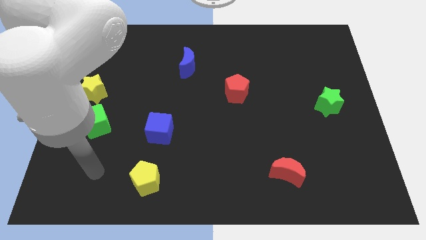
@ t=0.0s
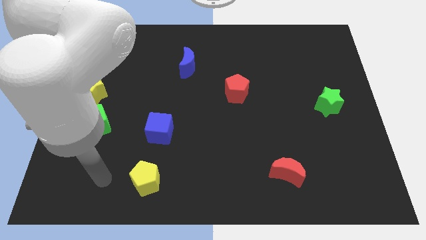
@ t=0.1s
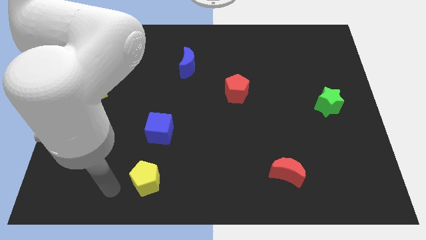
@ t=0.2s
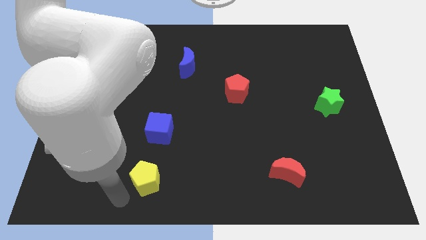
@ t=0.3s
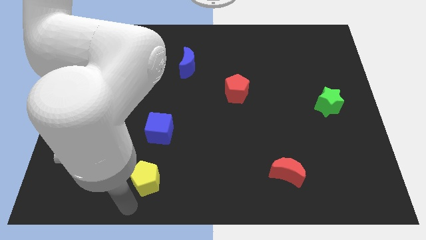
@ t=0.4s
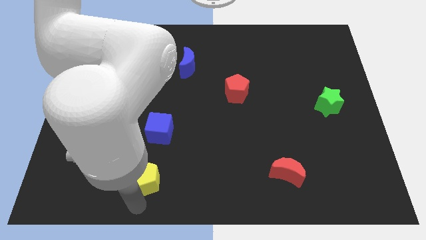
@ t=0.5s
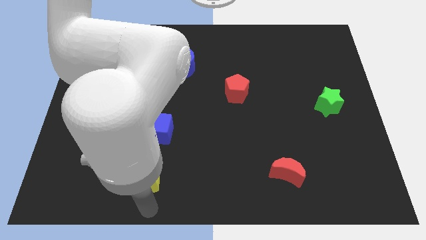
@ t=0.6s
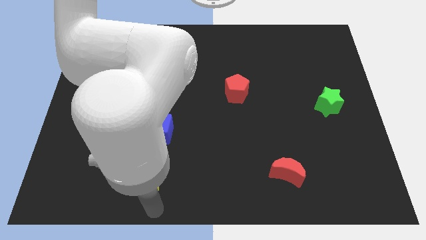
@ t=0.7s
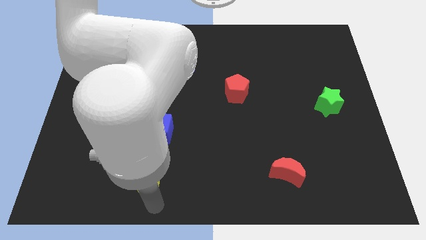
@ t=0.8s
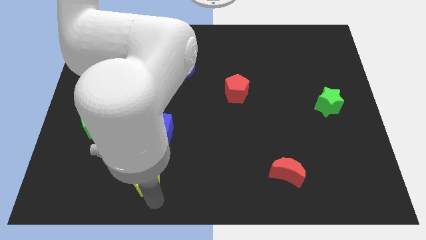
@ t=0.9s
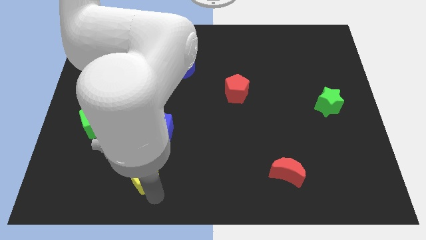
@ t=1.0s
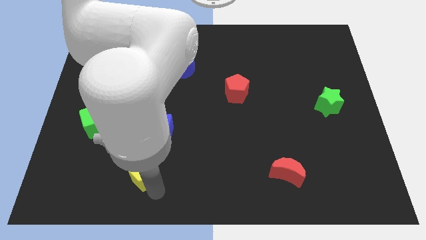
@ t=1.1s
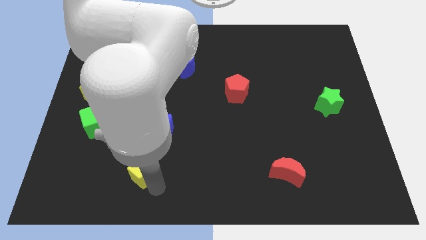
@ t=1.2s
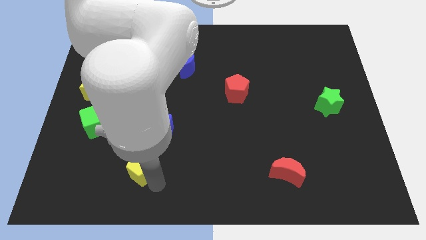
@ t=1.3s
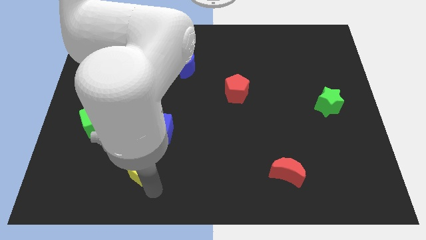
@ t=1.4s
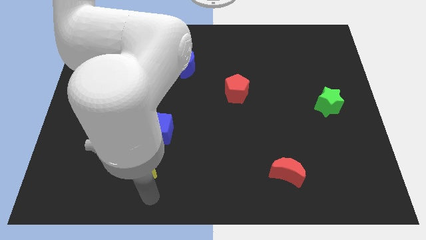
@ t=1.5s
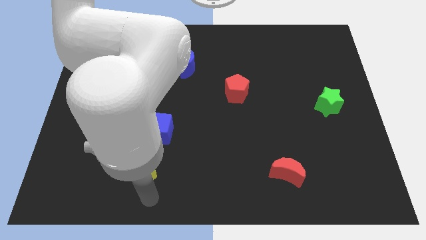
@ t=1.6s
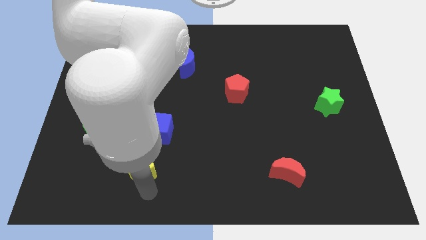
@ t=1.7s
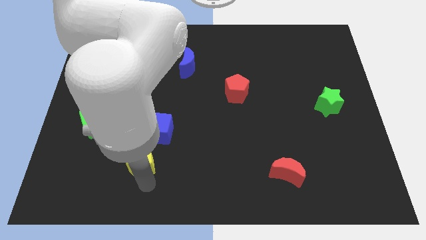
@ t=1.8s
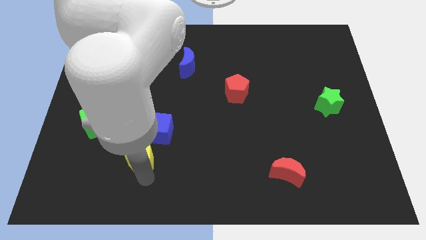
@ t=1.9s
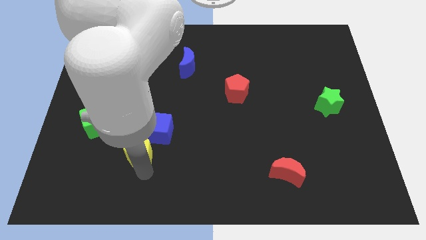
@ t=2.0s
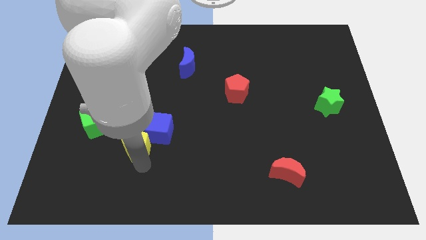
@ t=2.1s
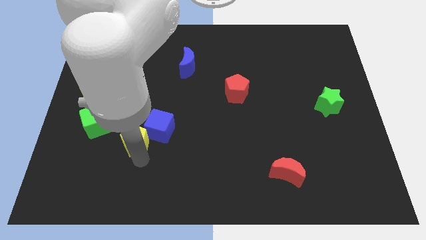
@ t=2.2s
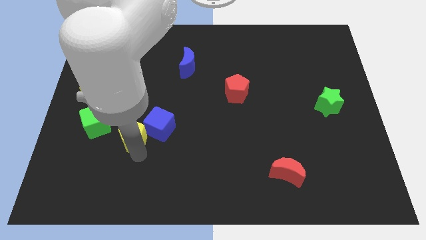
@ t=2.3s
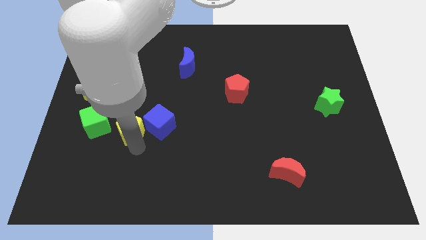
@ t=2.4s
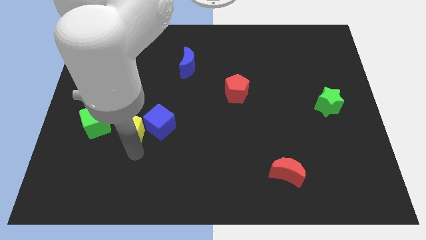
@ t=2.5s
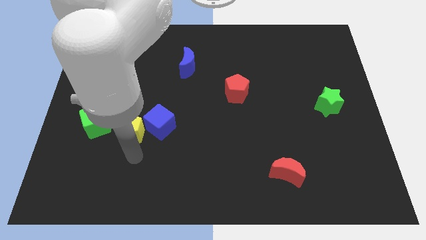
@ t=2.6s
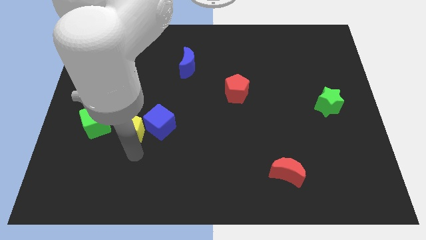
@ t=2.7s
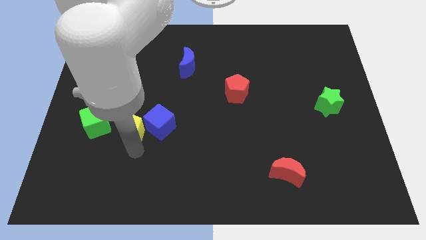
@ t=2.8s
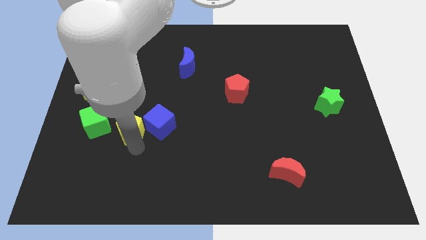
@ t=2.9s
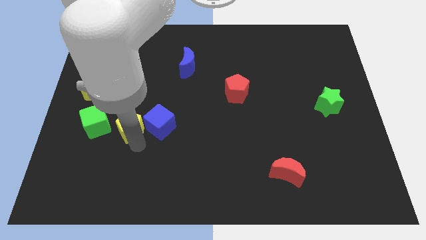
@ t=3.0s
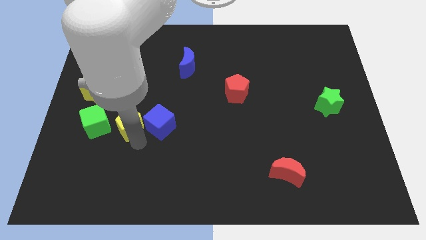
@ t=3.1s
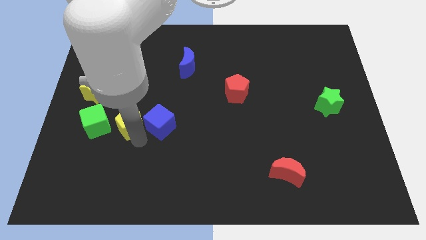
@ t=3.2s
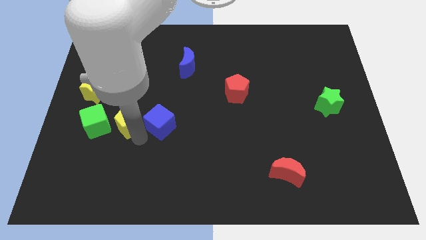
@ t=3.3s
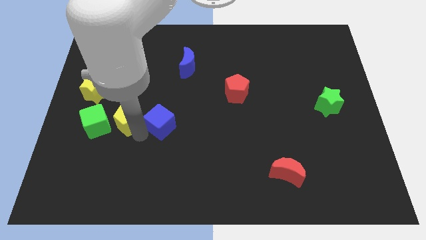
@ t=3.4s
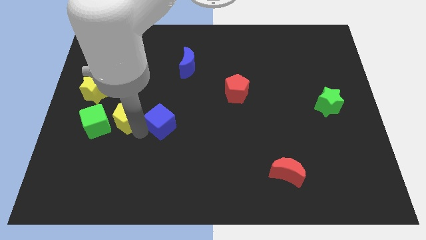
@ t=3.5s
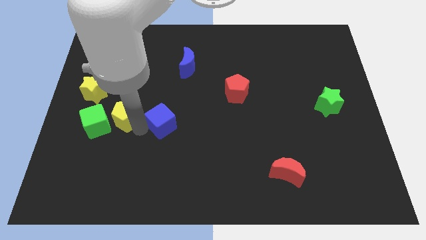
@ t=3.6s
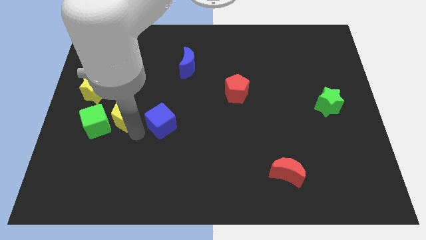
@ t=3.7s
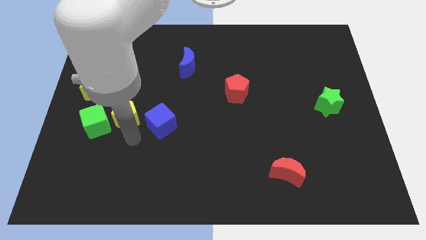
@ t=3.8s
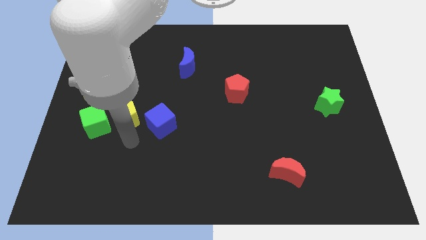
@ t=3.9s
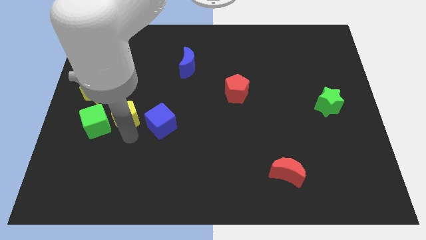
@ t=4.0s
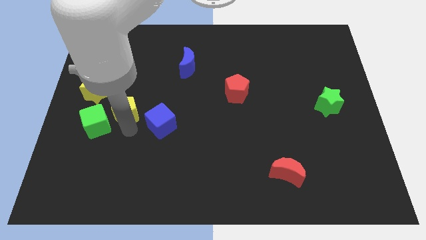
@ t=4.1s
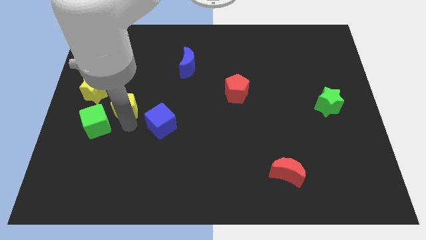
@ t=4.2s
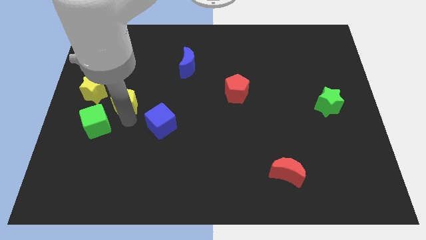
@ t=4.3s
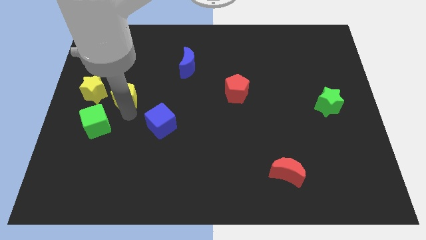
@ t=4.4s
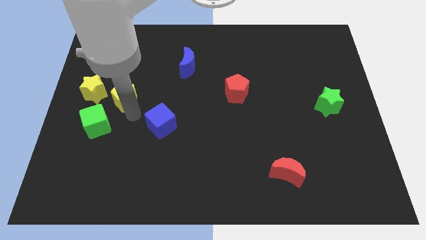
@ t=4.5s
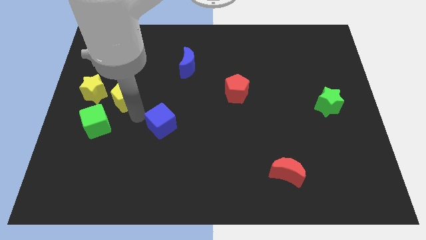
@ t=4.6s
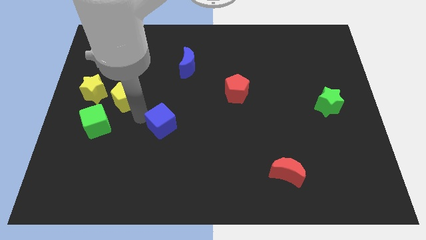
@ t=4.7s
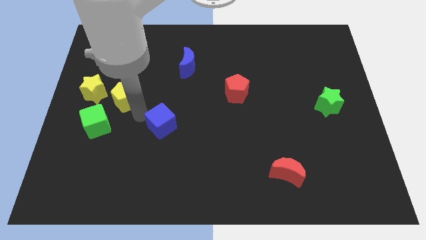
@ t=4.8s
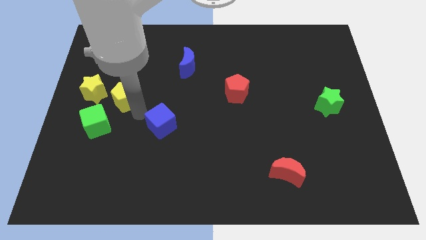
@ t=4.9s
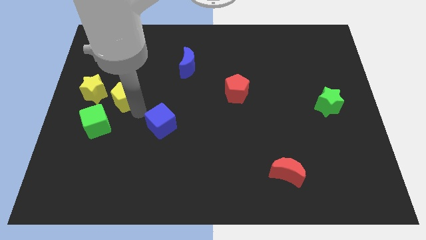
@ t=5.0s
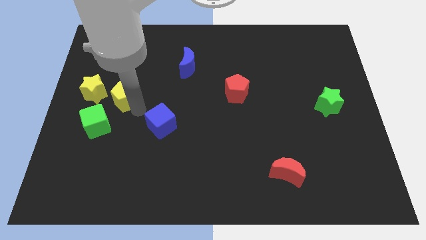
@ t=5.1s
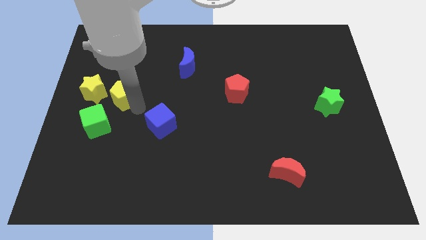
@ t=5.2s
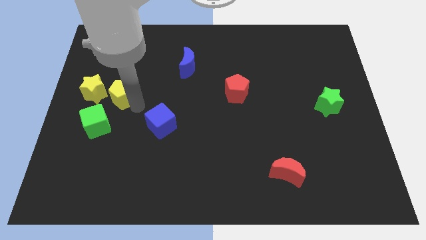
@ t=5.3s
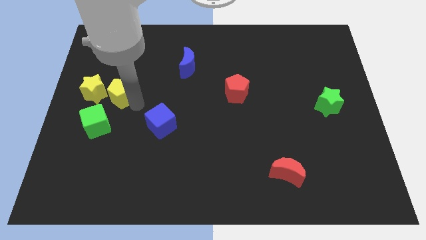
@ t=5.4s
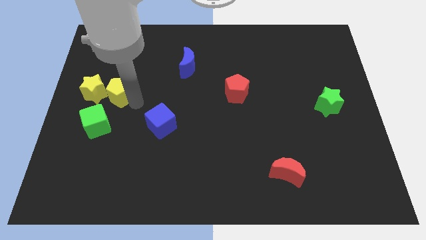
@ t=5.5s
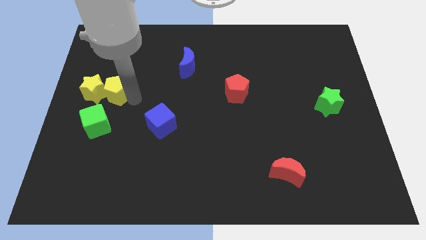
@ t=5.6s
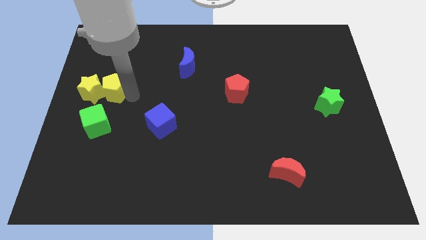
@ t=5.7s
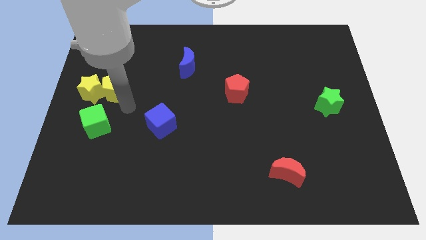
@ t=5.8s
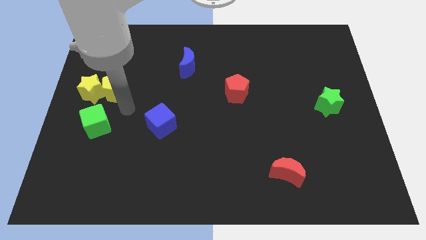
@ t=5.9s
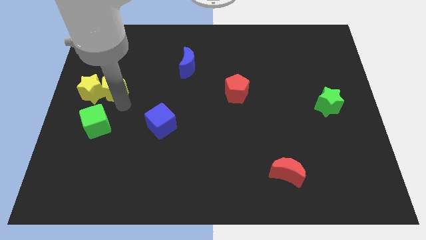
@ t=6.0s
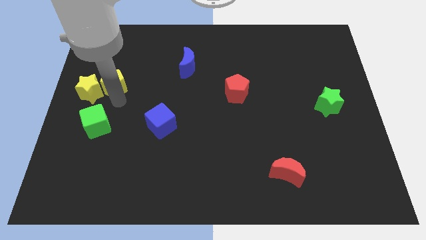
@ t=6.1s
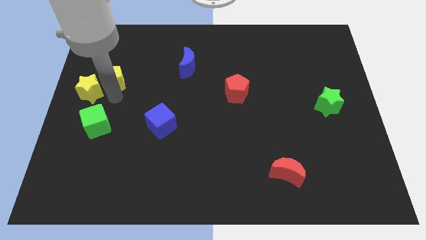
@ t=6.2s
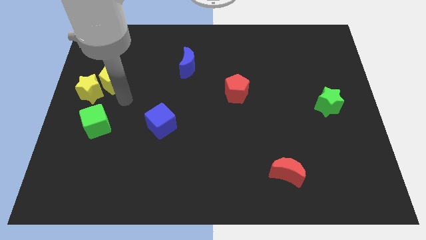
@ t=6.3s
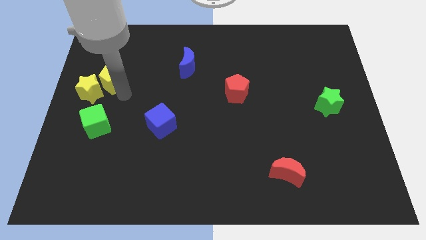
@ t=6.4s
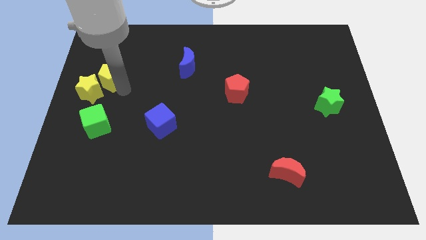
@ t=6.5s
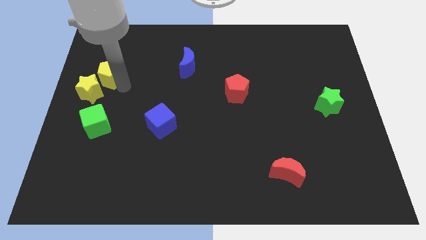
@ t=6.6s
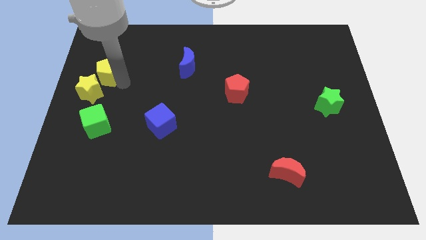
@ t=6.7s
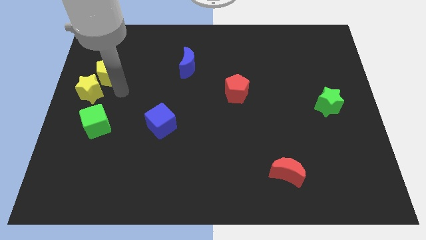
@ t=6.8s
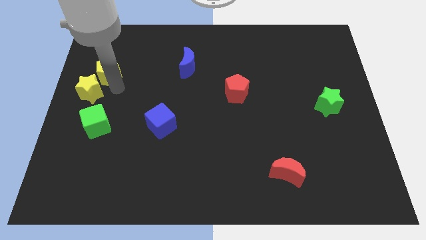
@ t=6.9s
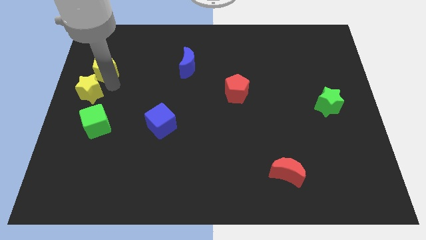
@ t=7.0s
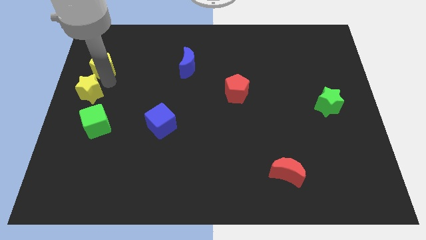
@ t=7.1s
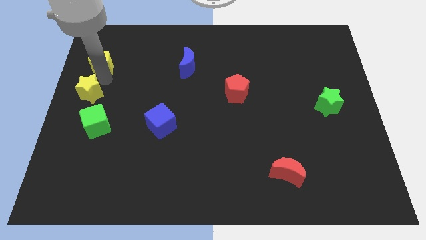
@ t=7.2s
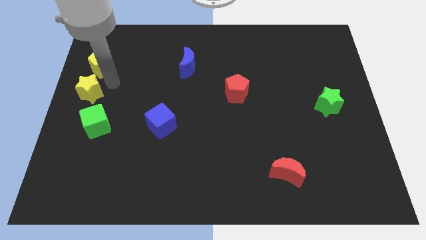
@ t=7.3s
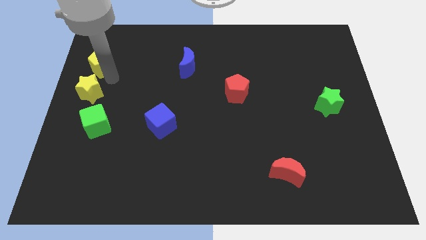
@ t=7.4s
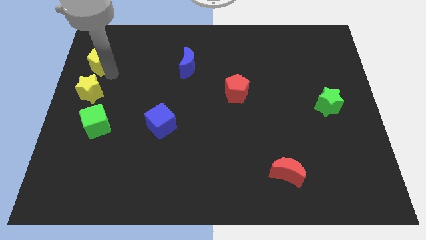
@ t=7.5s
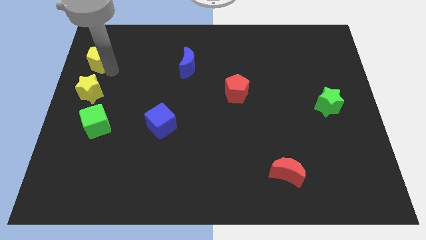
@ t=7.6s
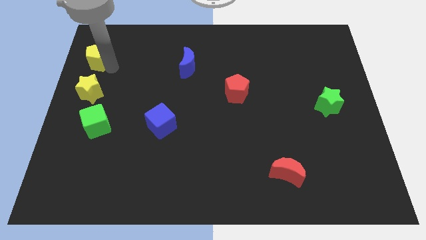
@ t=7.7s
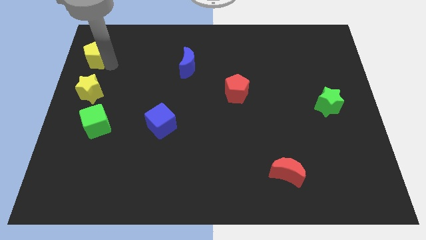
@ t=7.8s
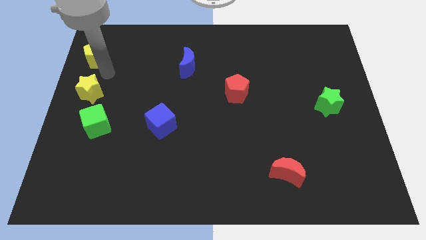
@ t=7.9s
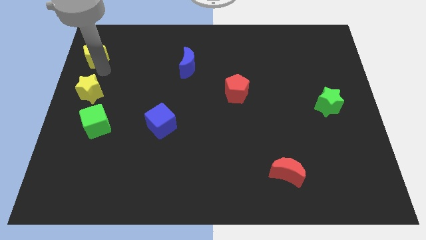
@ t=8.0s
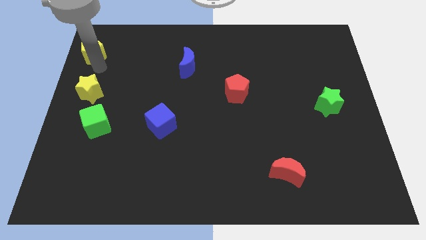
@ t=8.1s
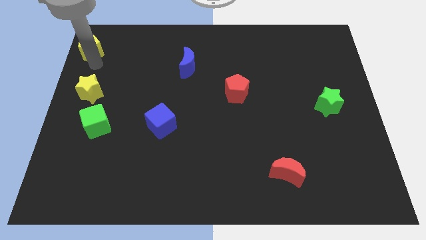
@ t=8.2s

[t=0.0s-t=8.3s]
slide the yellow pentagon to the upper left corner
